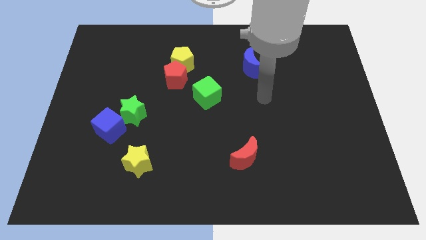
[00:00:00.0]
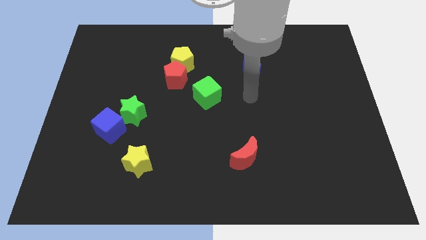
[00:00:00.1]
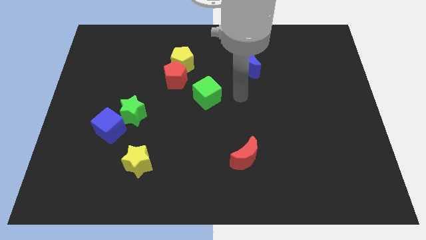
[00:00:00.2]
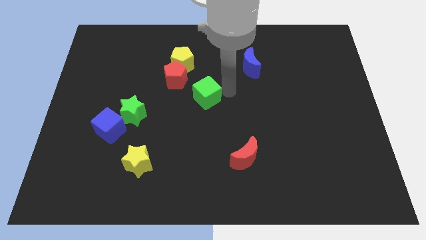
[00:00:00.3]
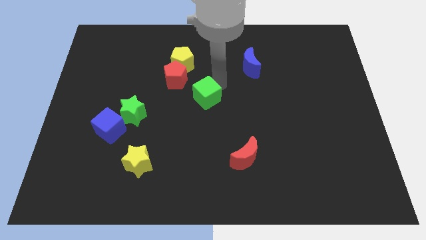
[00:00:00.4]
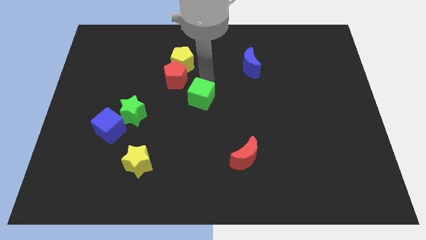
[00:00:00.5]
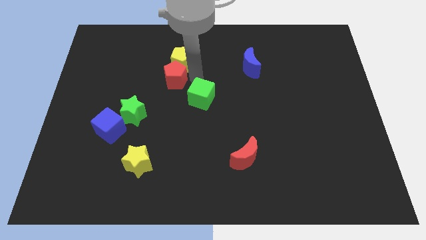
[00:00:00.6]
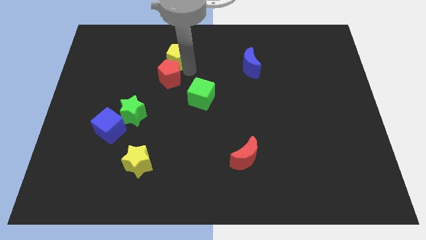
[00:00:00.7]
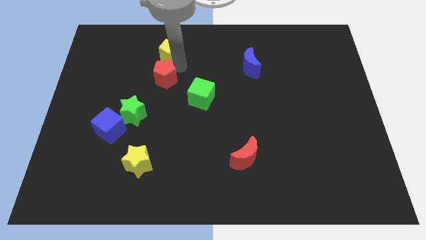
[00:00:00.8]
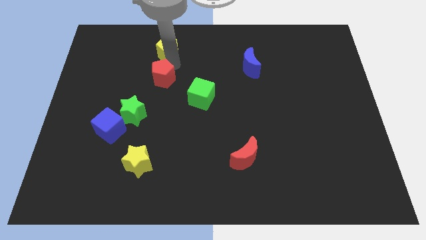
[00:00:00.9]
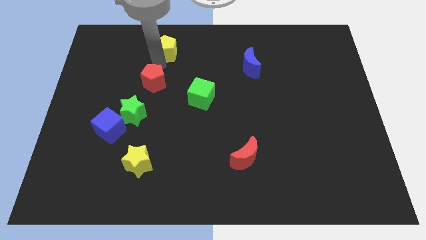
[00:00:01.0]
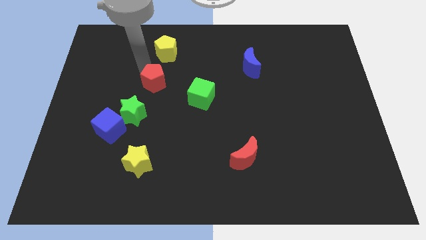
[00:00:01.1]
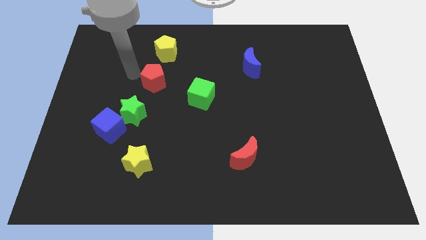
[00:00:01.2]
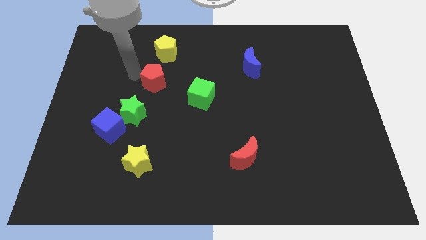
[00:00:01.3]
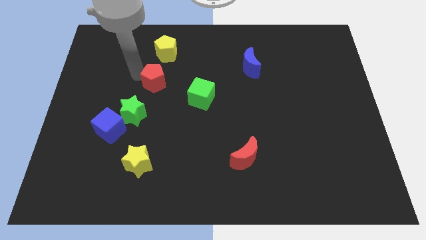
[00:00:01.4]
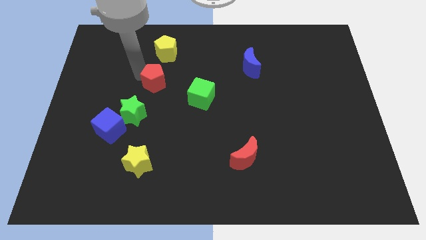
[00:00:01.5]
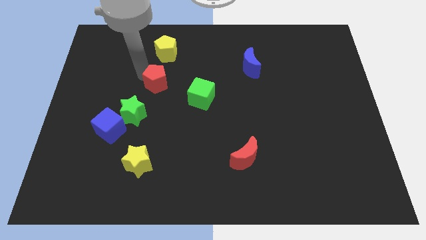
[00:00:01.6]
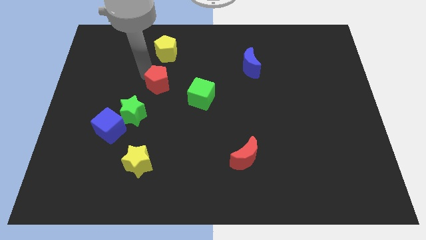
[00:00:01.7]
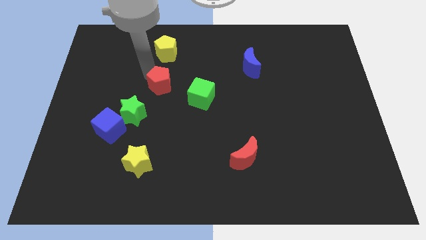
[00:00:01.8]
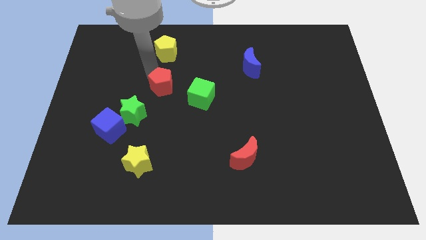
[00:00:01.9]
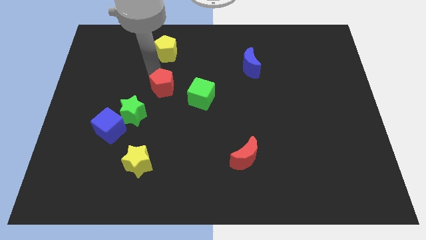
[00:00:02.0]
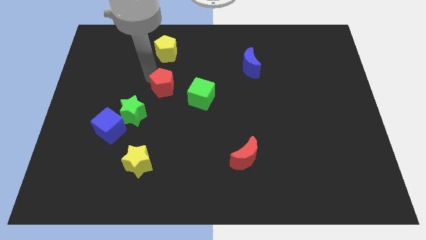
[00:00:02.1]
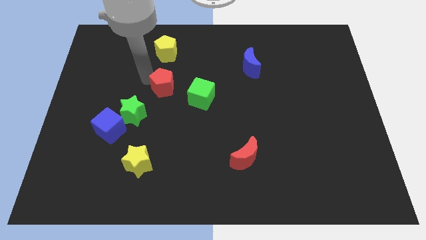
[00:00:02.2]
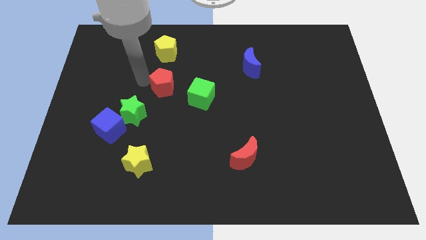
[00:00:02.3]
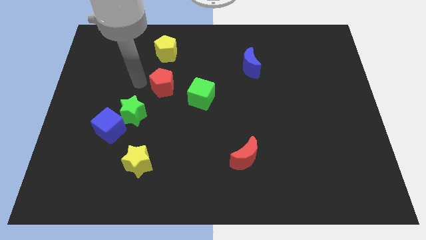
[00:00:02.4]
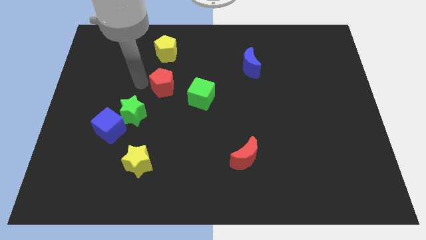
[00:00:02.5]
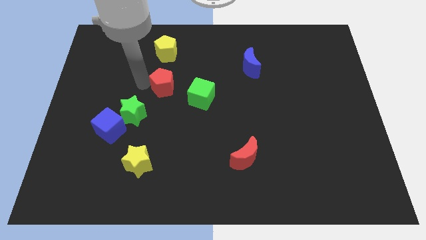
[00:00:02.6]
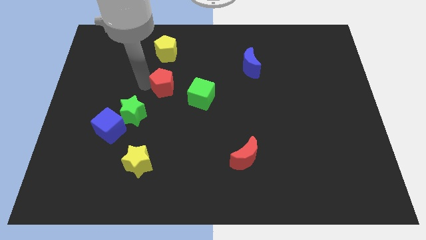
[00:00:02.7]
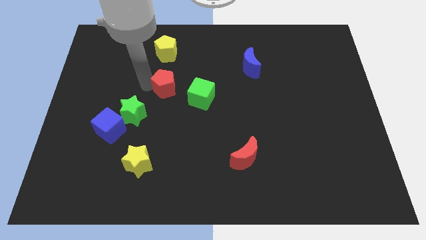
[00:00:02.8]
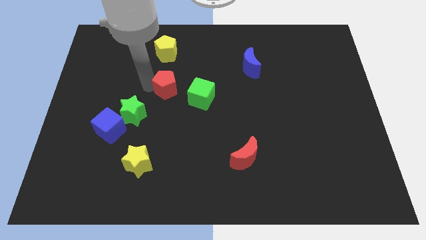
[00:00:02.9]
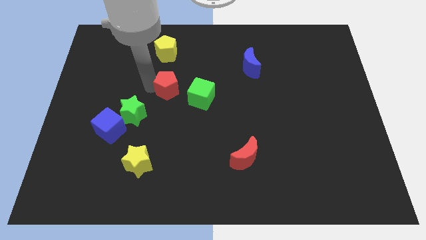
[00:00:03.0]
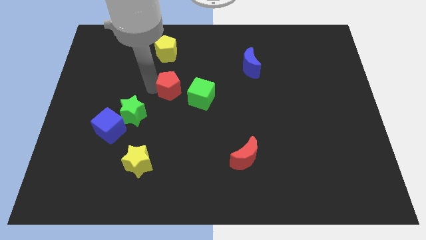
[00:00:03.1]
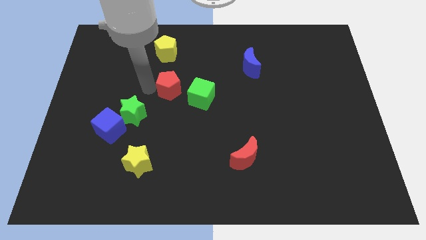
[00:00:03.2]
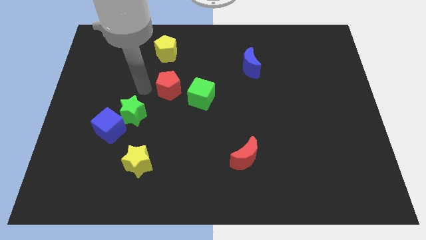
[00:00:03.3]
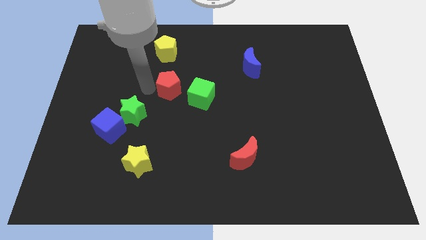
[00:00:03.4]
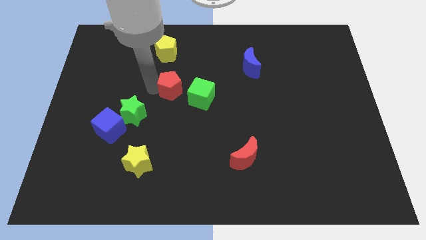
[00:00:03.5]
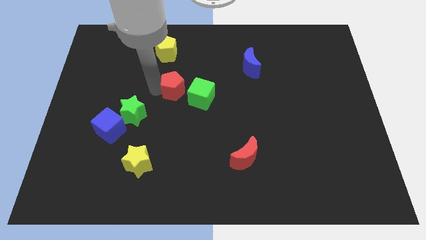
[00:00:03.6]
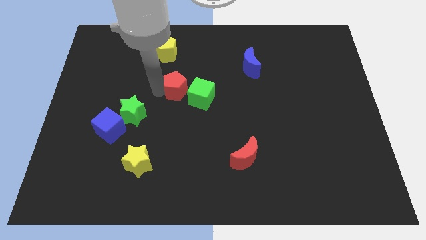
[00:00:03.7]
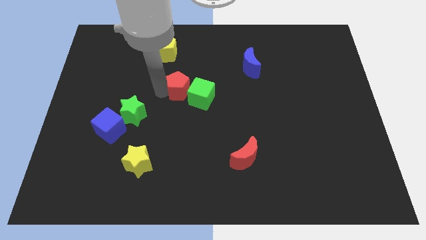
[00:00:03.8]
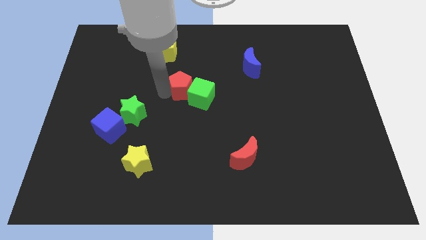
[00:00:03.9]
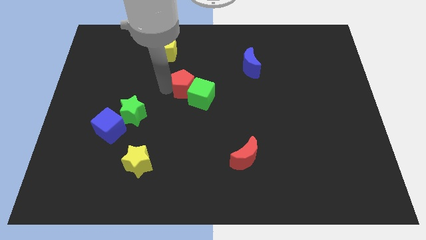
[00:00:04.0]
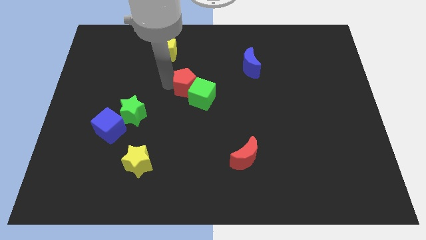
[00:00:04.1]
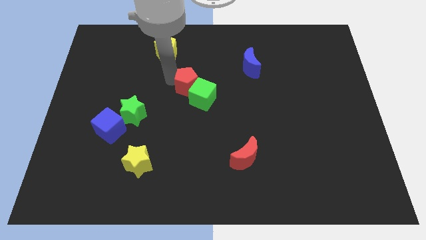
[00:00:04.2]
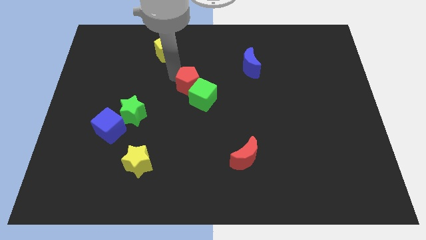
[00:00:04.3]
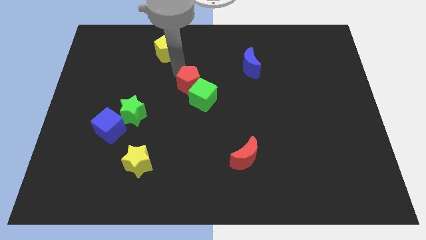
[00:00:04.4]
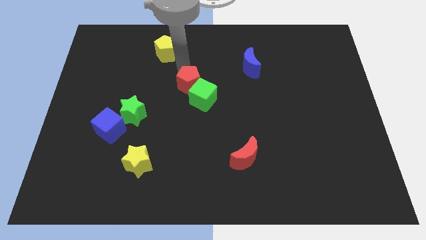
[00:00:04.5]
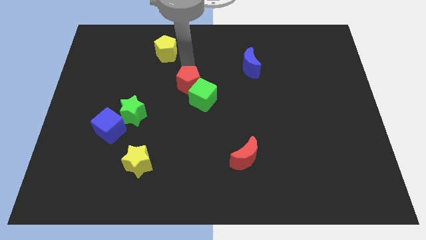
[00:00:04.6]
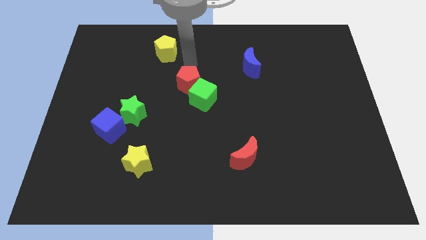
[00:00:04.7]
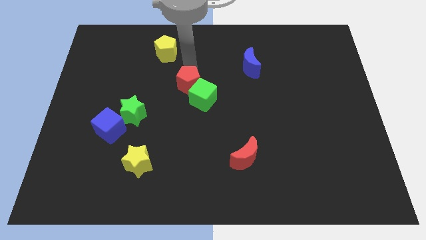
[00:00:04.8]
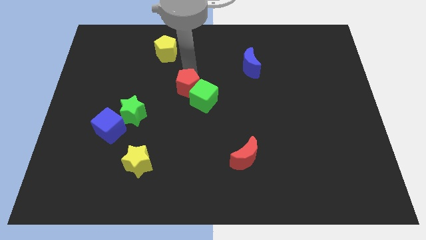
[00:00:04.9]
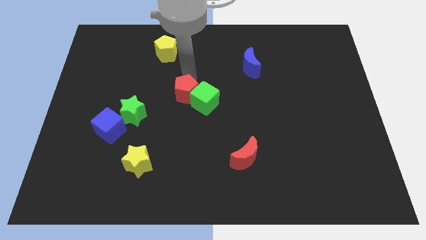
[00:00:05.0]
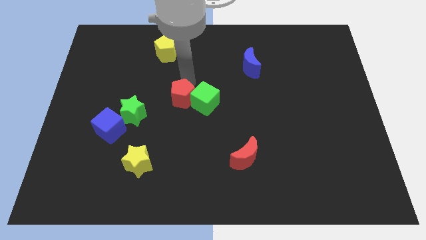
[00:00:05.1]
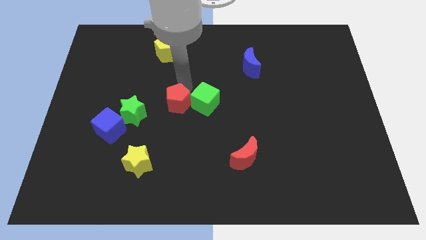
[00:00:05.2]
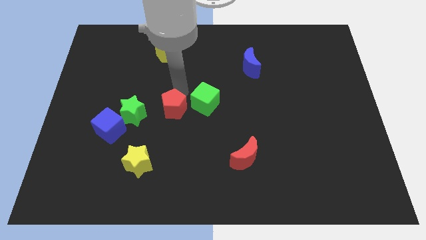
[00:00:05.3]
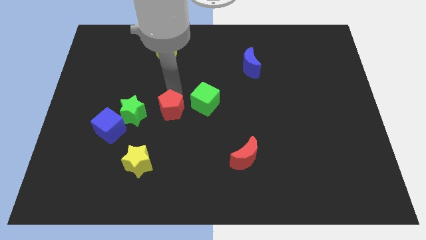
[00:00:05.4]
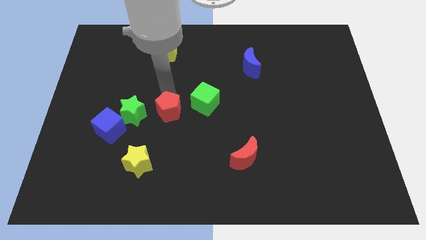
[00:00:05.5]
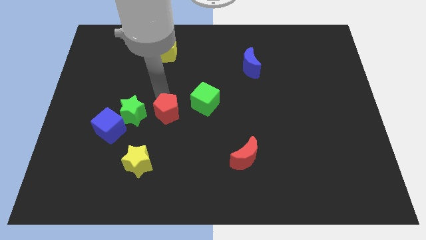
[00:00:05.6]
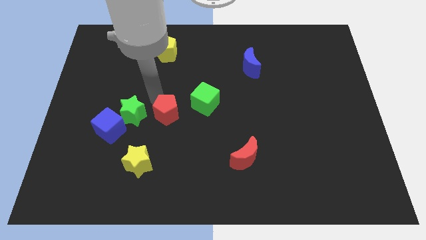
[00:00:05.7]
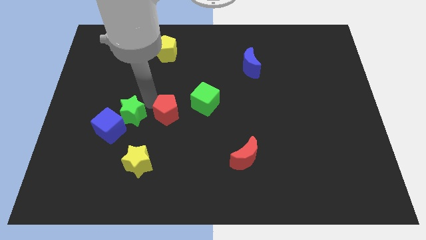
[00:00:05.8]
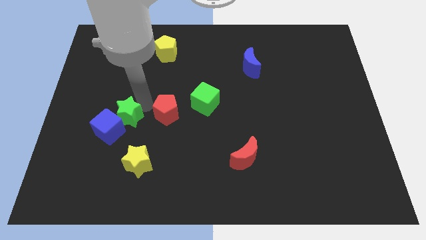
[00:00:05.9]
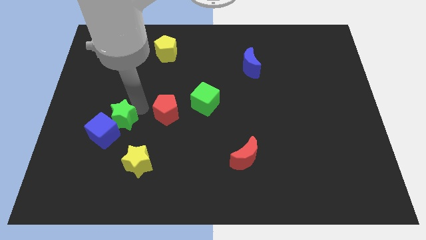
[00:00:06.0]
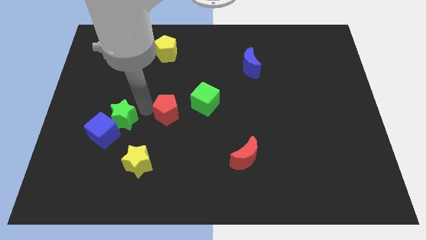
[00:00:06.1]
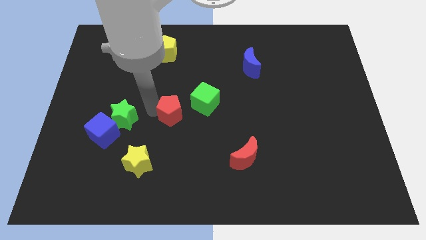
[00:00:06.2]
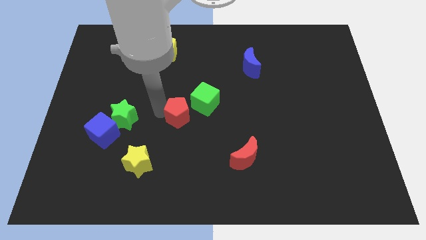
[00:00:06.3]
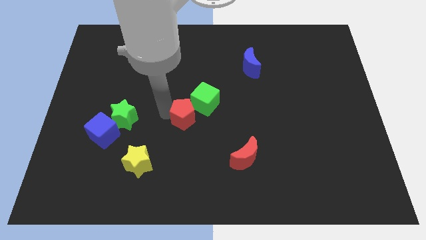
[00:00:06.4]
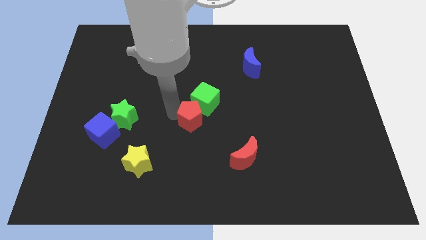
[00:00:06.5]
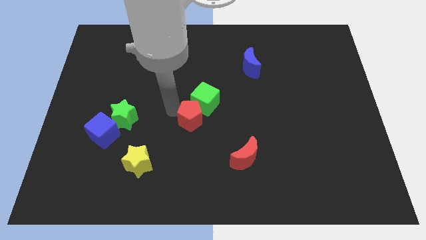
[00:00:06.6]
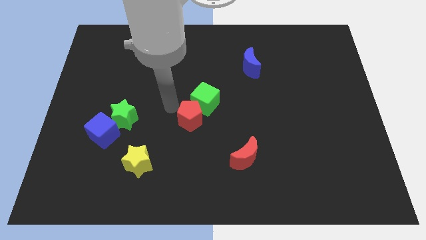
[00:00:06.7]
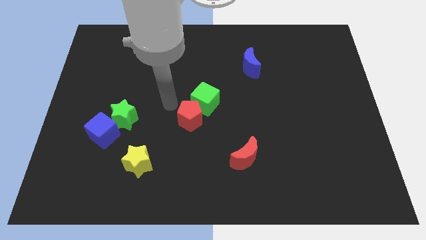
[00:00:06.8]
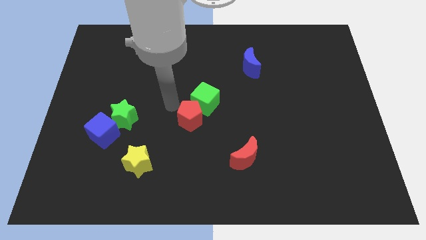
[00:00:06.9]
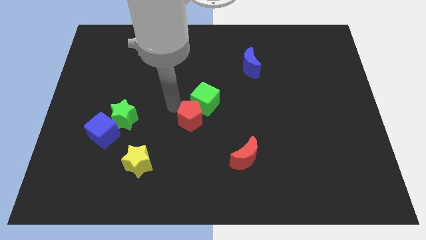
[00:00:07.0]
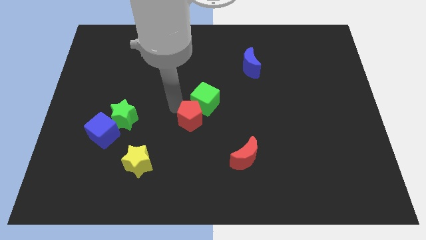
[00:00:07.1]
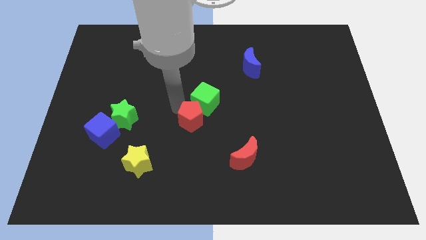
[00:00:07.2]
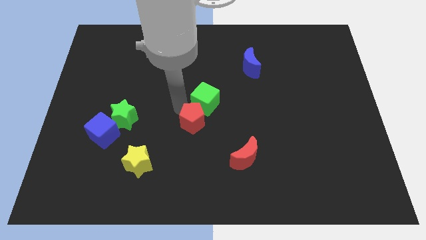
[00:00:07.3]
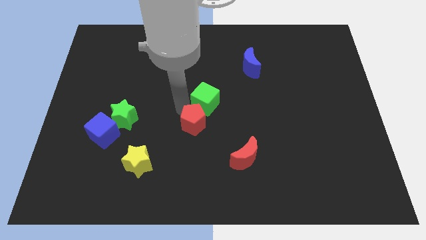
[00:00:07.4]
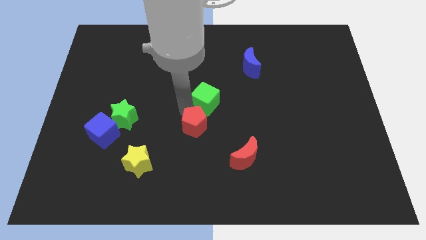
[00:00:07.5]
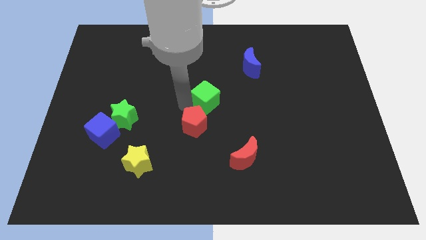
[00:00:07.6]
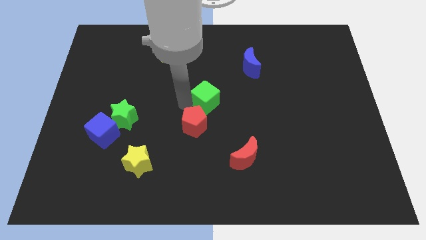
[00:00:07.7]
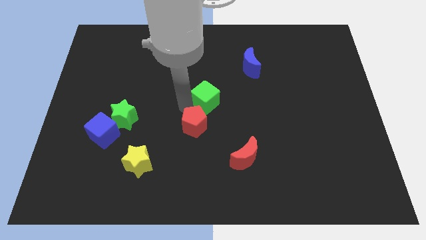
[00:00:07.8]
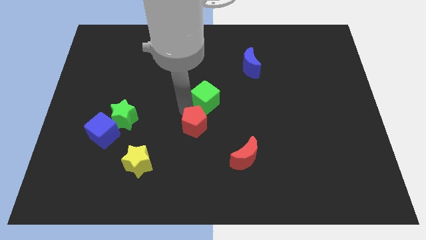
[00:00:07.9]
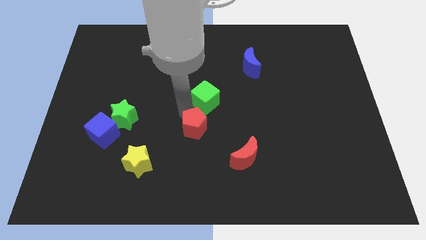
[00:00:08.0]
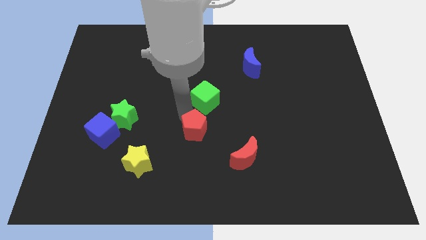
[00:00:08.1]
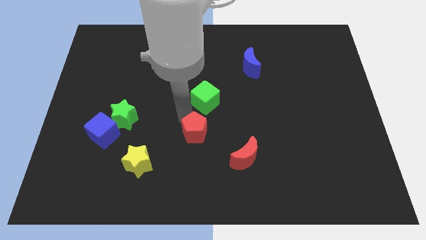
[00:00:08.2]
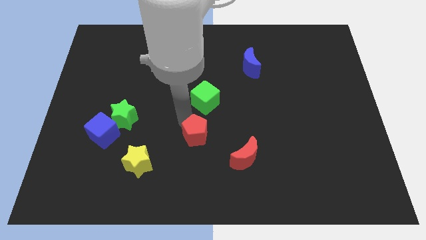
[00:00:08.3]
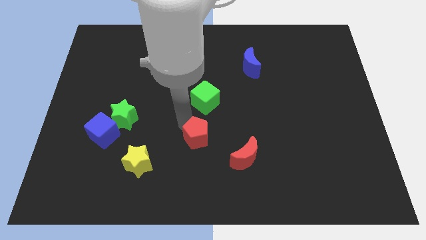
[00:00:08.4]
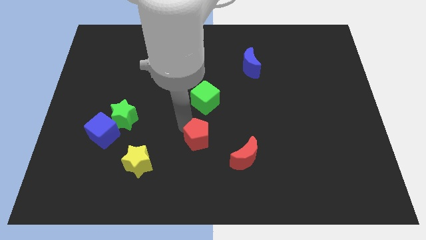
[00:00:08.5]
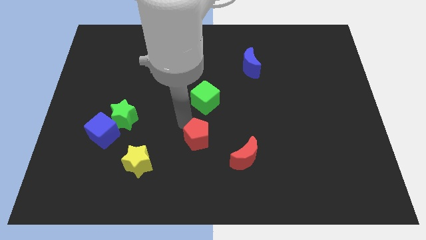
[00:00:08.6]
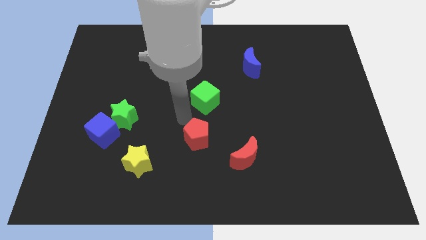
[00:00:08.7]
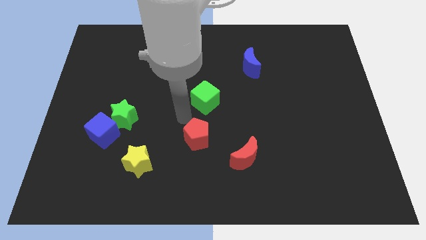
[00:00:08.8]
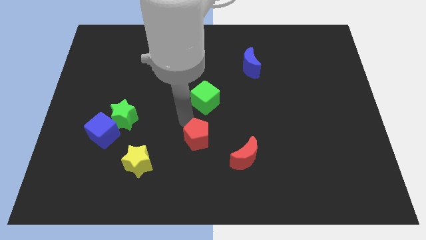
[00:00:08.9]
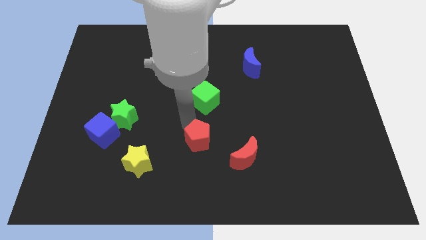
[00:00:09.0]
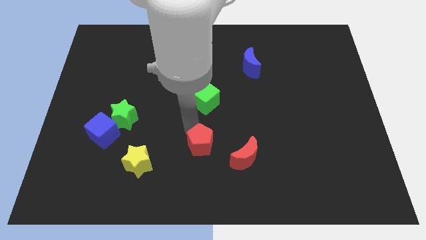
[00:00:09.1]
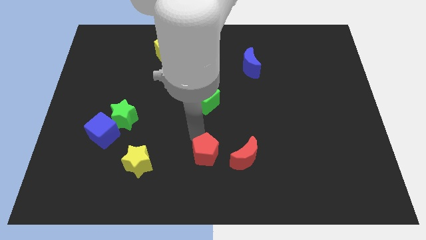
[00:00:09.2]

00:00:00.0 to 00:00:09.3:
move the red pentagon to the bottom side
